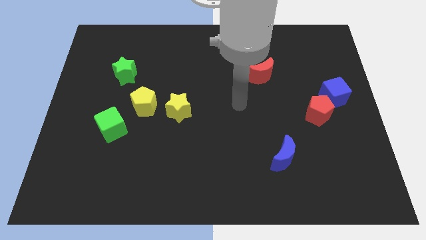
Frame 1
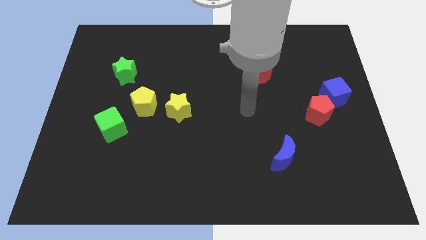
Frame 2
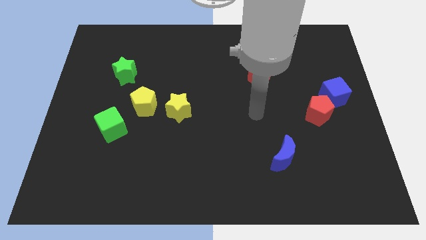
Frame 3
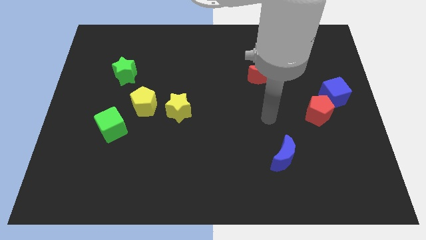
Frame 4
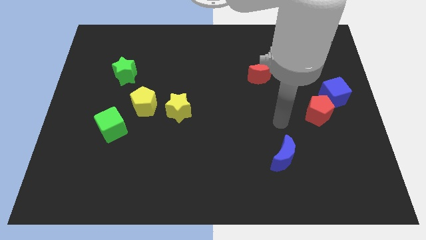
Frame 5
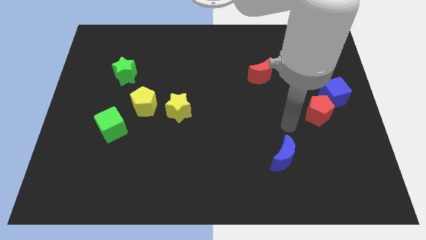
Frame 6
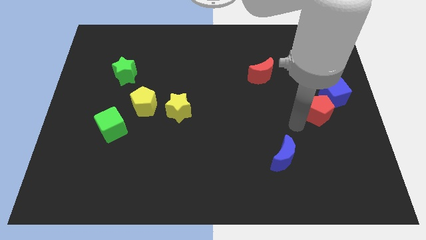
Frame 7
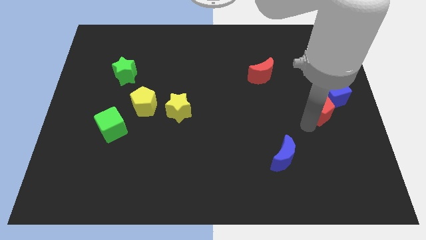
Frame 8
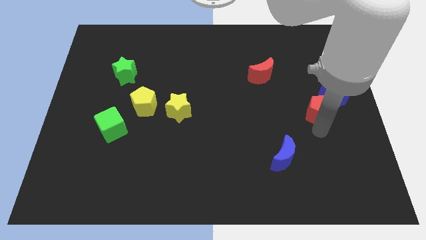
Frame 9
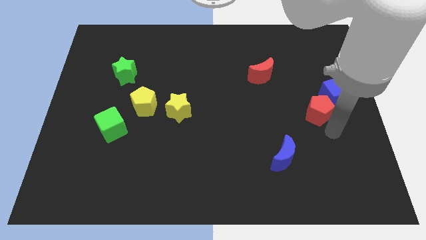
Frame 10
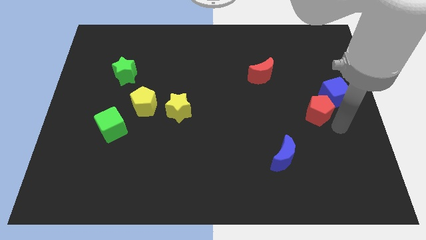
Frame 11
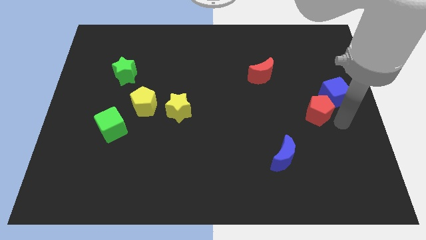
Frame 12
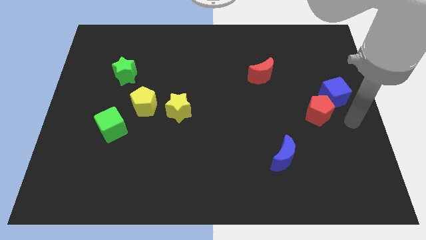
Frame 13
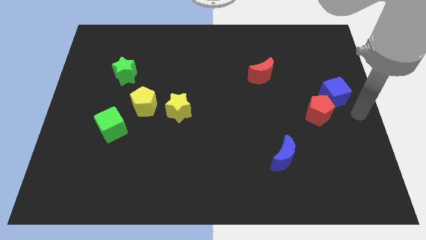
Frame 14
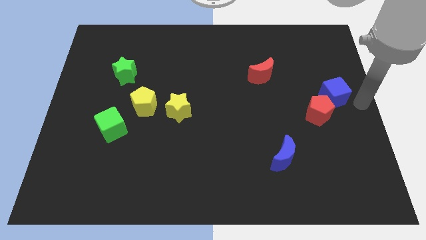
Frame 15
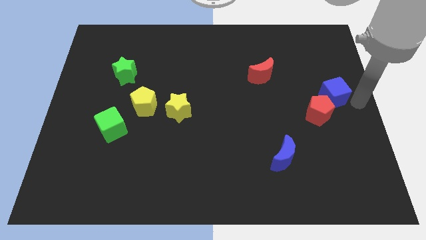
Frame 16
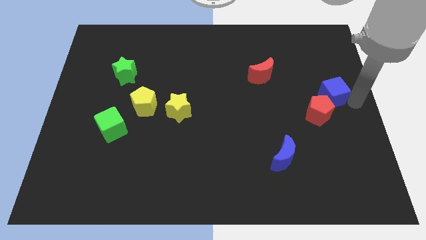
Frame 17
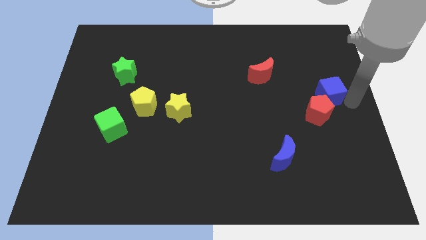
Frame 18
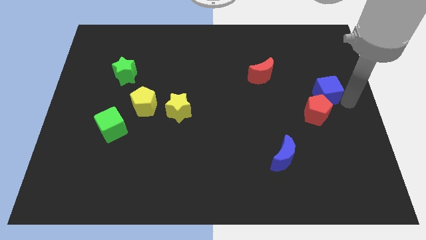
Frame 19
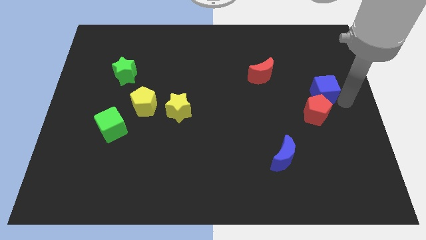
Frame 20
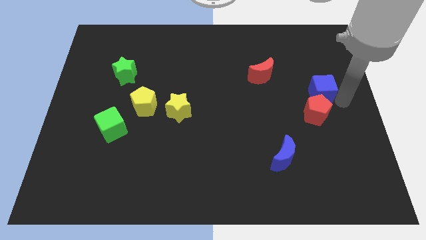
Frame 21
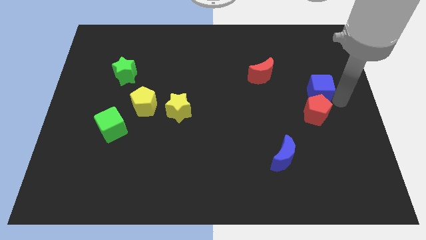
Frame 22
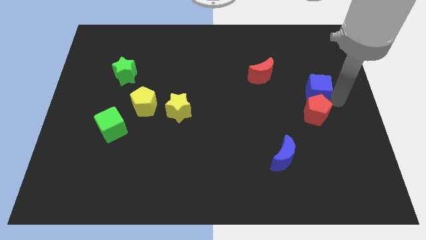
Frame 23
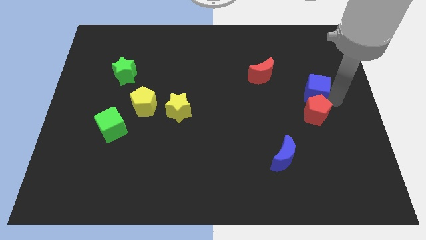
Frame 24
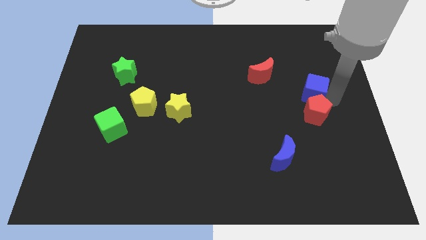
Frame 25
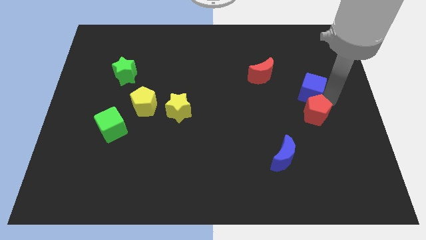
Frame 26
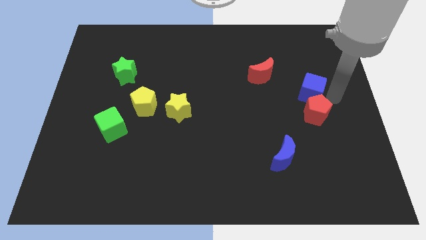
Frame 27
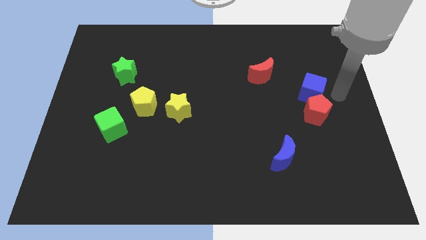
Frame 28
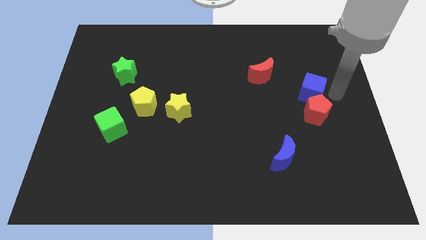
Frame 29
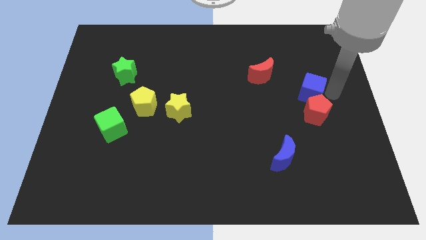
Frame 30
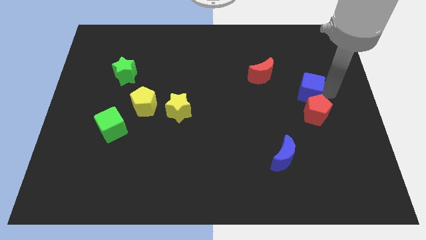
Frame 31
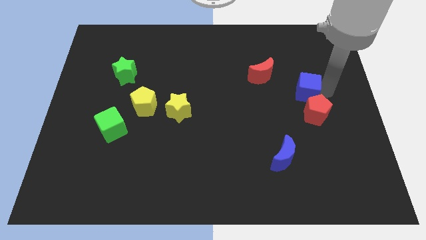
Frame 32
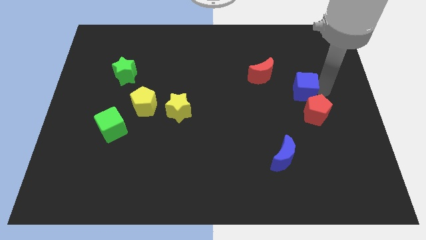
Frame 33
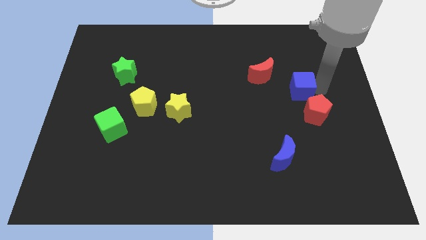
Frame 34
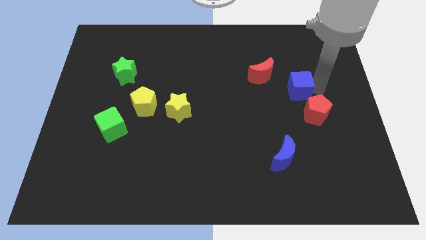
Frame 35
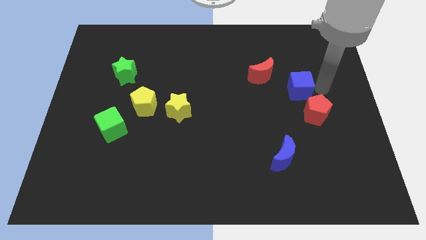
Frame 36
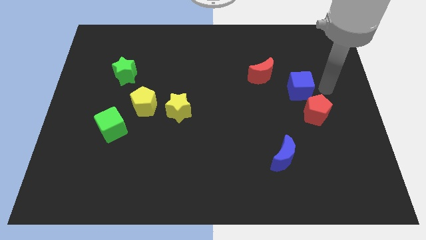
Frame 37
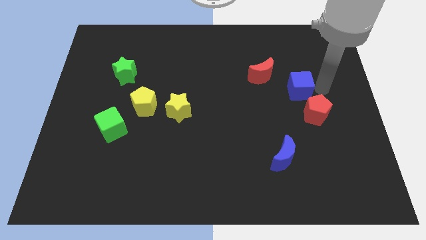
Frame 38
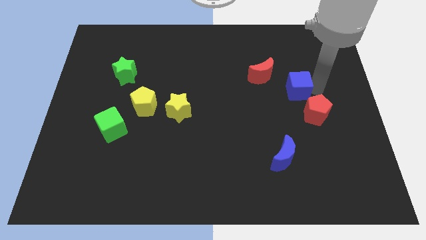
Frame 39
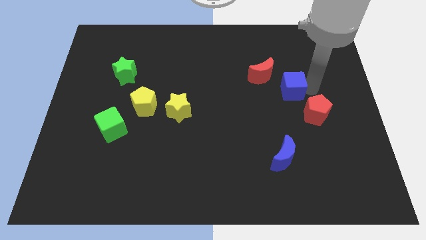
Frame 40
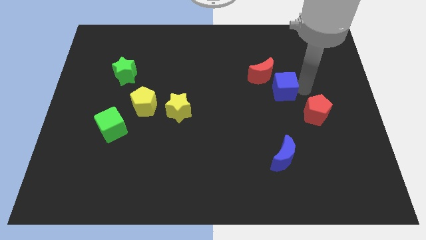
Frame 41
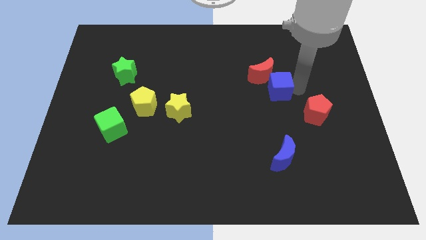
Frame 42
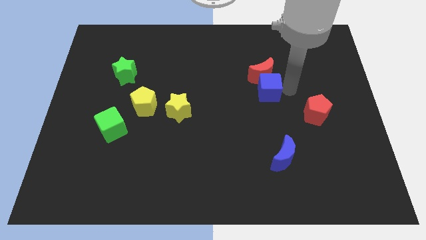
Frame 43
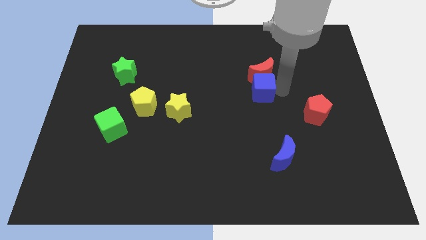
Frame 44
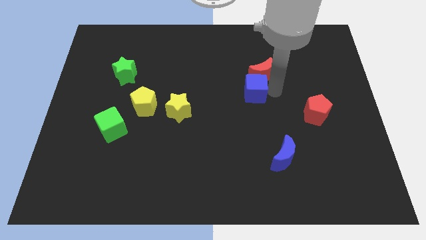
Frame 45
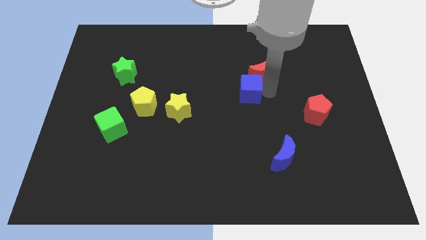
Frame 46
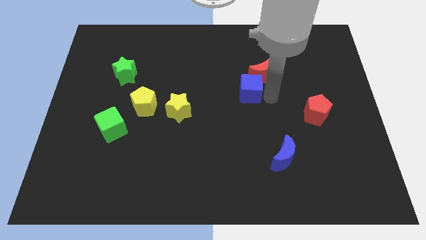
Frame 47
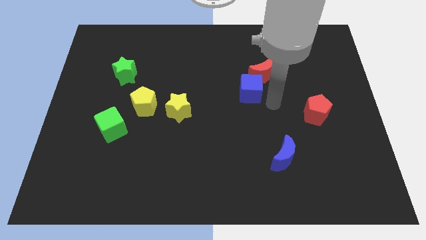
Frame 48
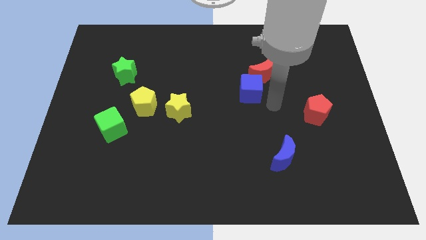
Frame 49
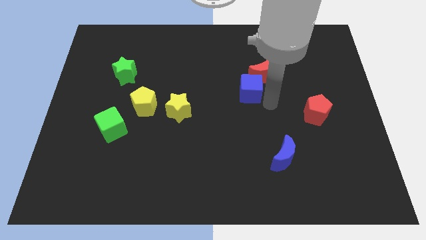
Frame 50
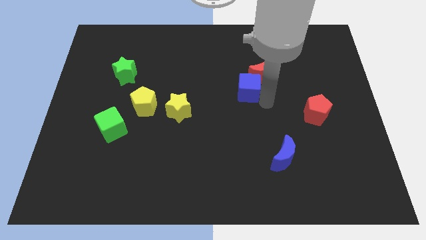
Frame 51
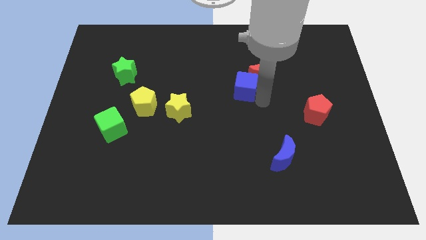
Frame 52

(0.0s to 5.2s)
push the blue cube to the left of the red moon

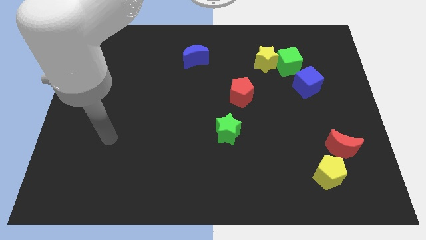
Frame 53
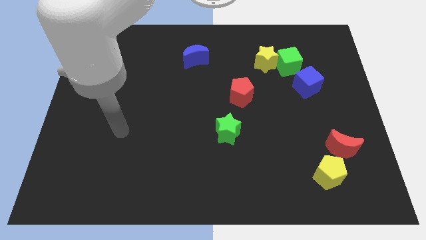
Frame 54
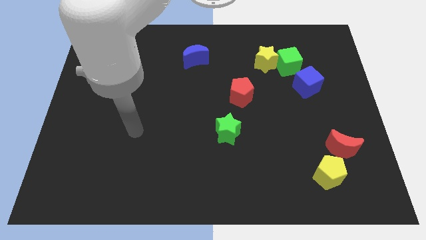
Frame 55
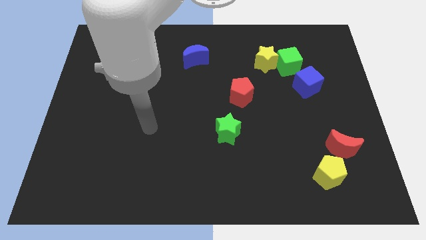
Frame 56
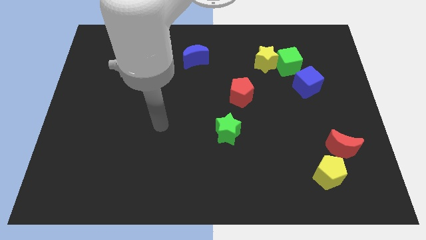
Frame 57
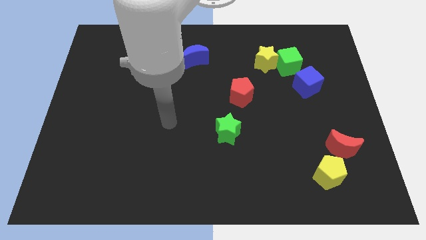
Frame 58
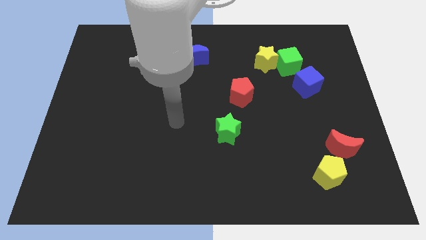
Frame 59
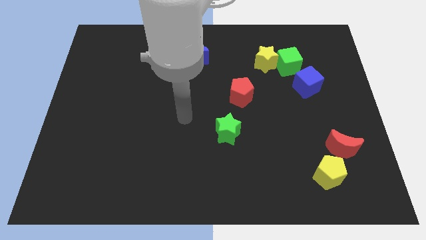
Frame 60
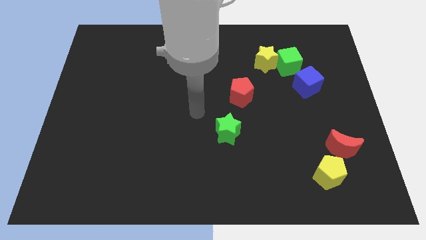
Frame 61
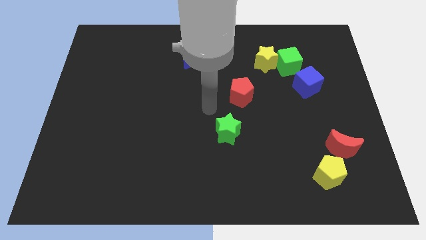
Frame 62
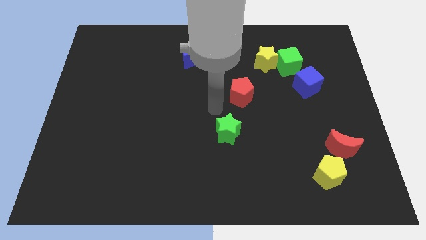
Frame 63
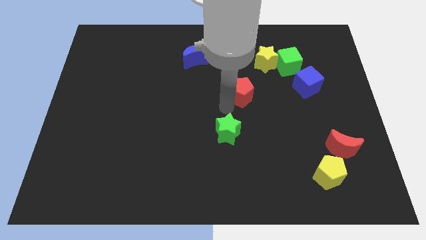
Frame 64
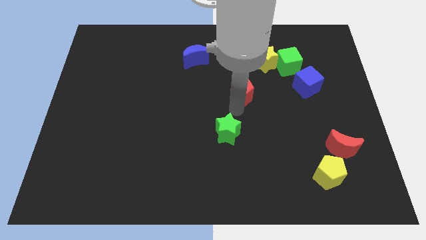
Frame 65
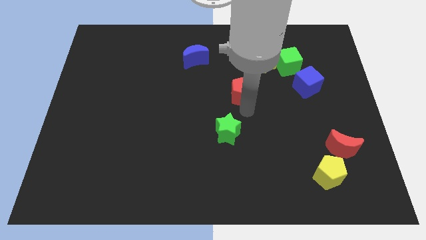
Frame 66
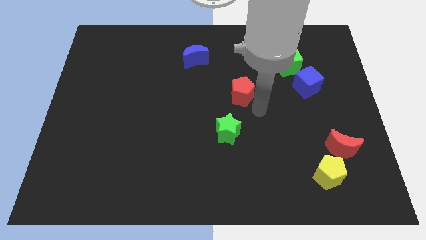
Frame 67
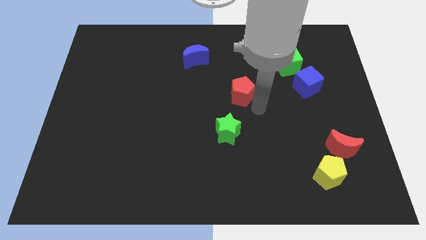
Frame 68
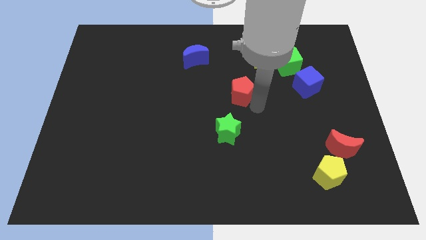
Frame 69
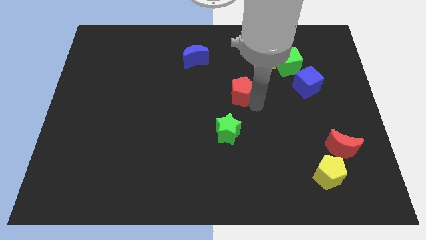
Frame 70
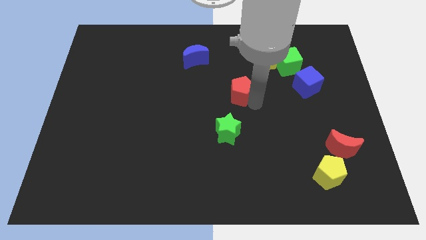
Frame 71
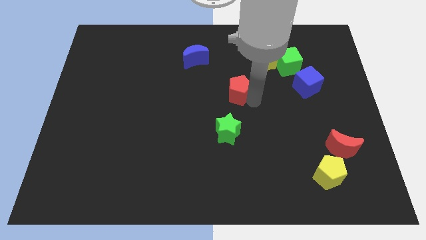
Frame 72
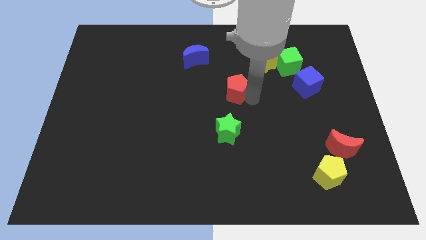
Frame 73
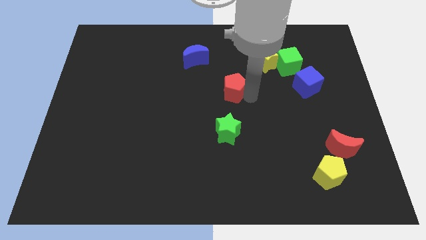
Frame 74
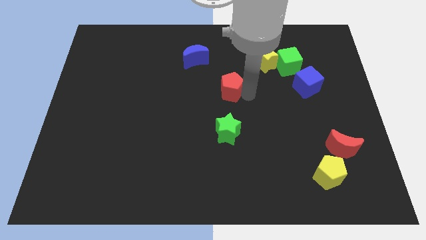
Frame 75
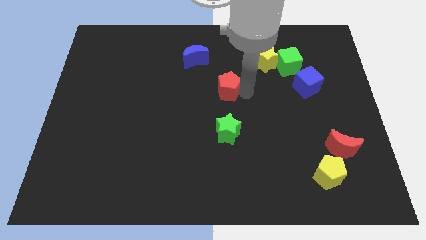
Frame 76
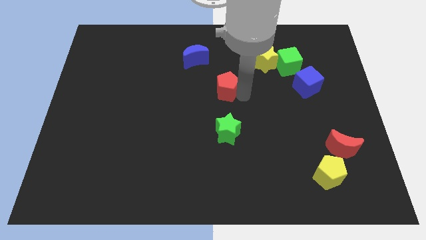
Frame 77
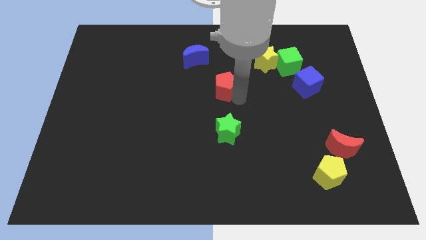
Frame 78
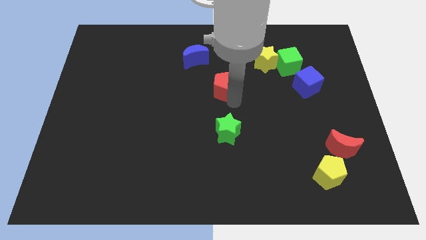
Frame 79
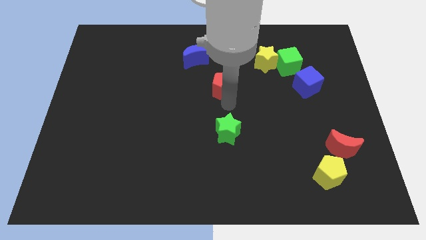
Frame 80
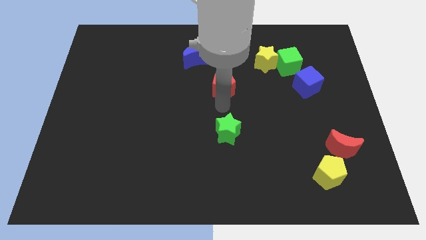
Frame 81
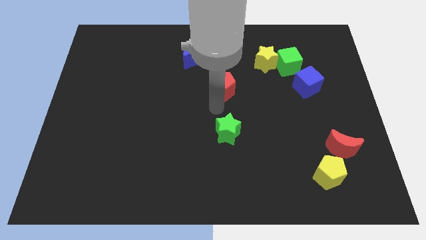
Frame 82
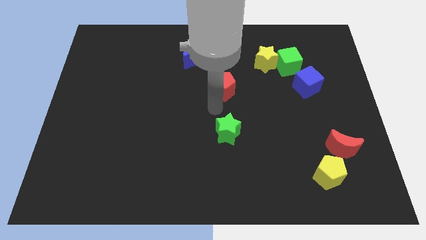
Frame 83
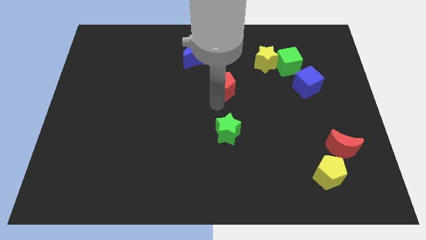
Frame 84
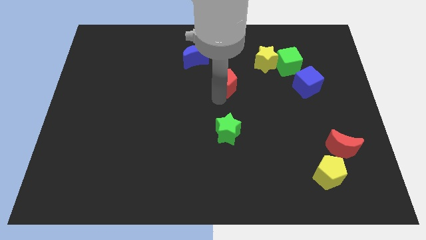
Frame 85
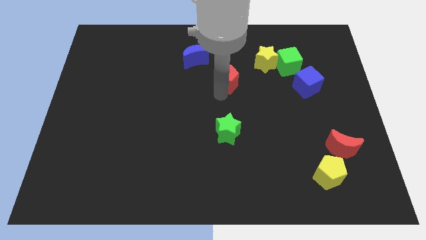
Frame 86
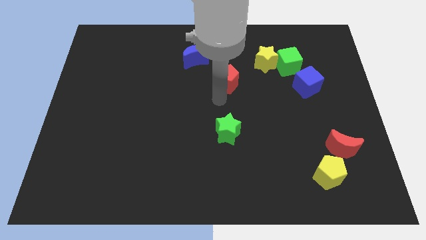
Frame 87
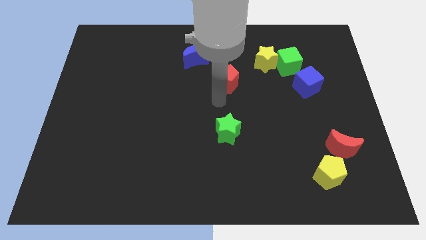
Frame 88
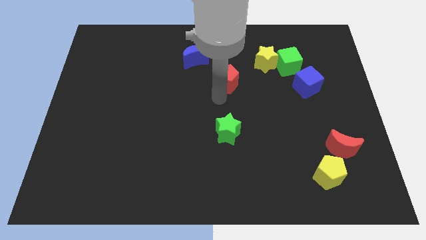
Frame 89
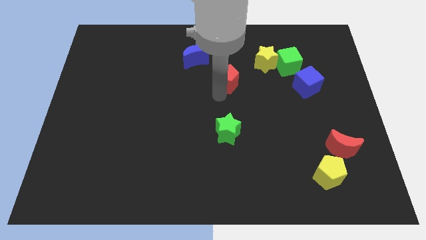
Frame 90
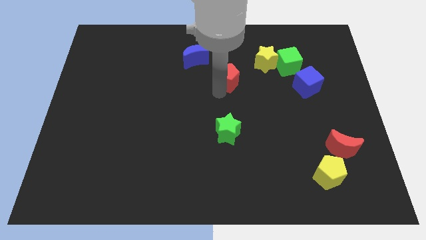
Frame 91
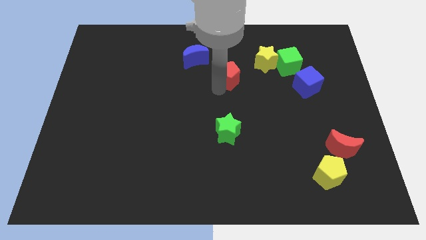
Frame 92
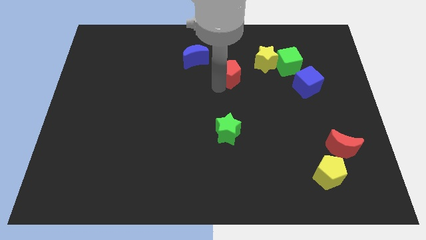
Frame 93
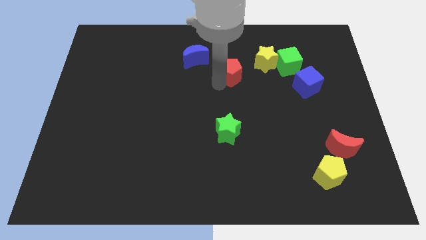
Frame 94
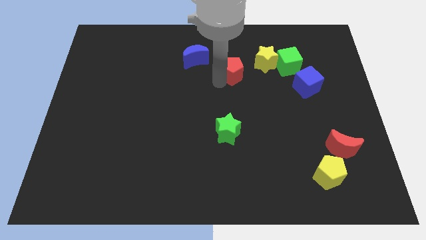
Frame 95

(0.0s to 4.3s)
push the red pentagon just right of the blue moon
